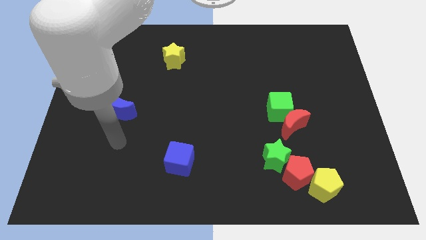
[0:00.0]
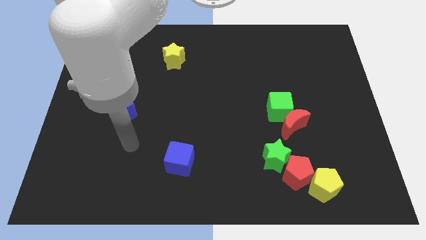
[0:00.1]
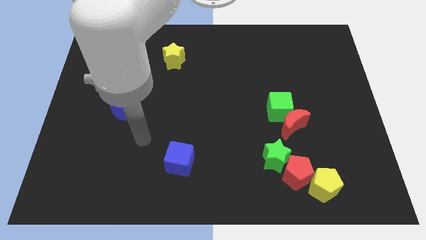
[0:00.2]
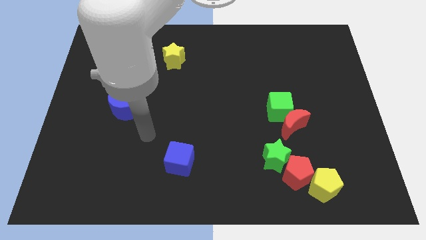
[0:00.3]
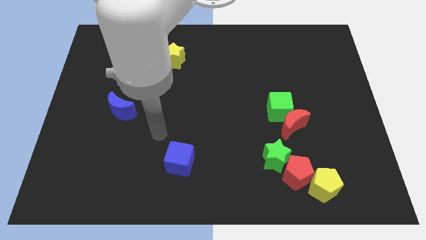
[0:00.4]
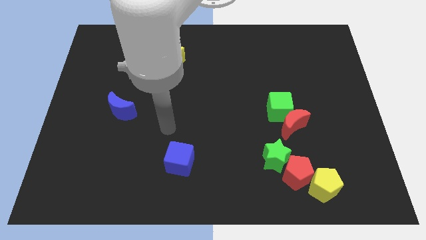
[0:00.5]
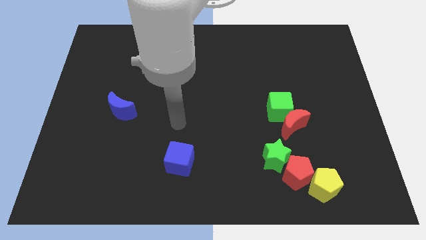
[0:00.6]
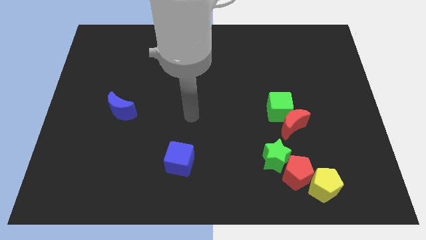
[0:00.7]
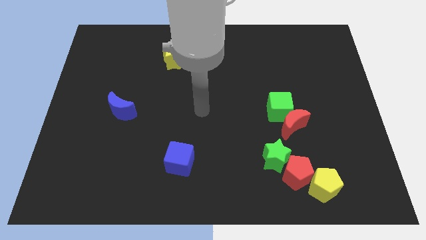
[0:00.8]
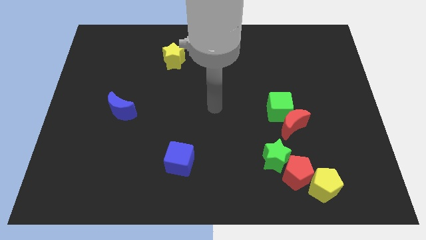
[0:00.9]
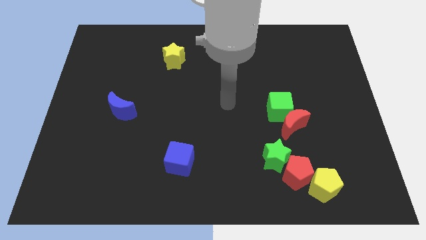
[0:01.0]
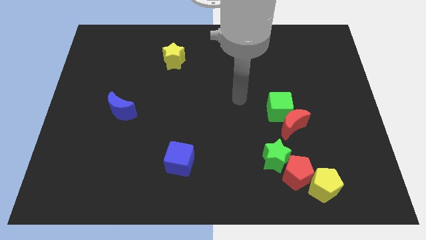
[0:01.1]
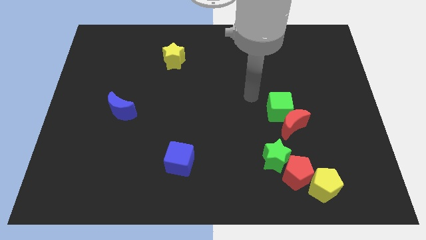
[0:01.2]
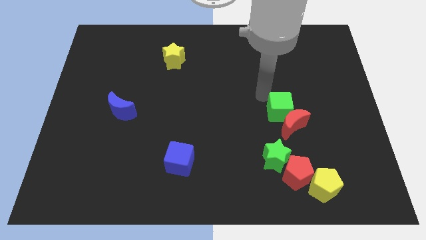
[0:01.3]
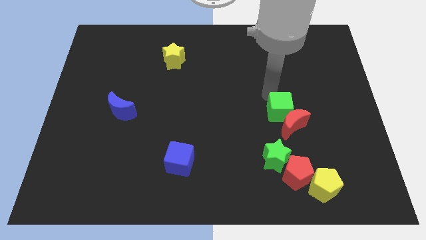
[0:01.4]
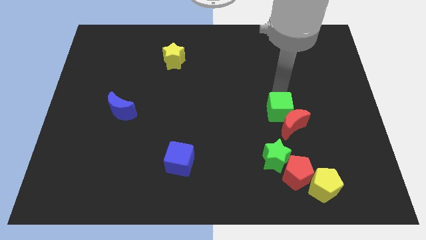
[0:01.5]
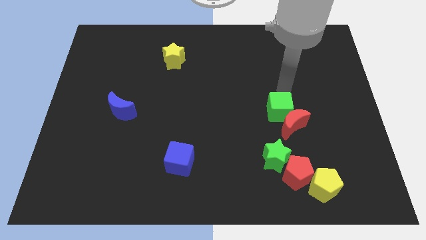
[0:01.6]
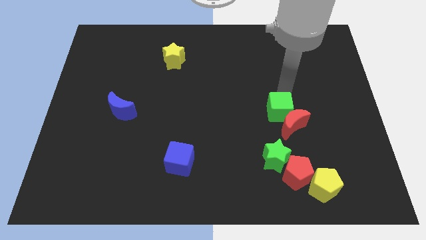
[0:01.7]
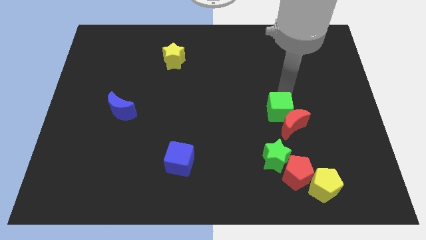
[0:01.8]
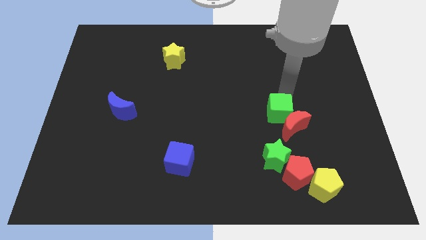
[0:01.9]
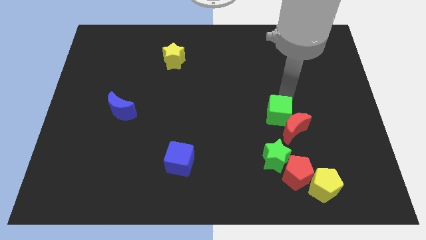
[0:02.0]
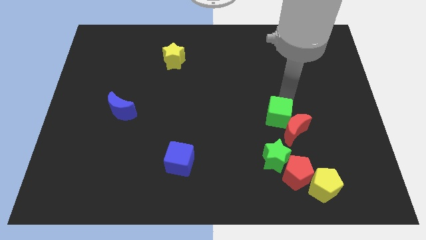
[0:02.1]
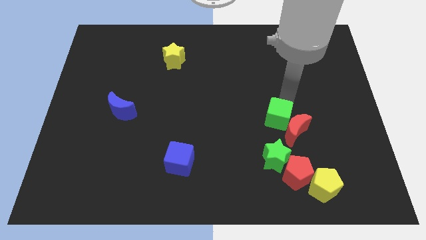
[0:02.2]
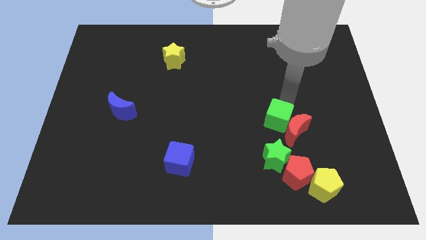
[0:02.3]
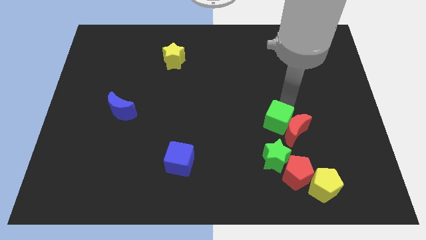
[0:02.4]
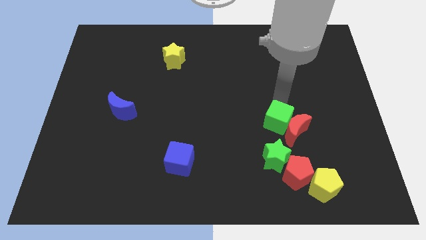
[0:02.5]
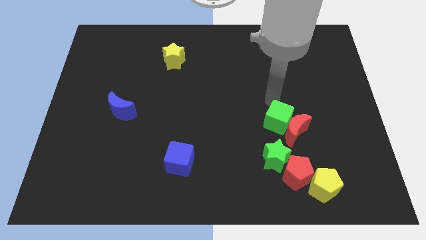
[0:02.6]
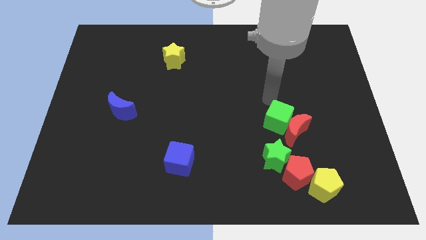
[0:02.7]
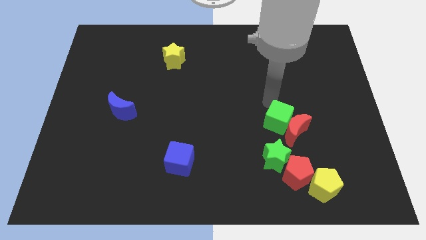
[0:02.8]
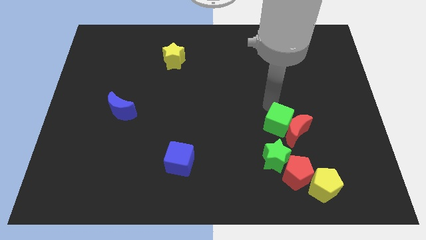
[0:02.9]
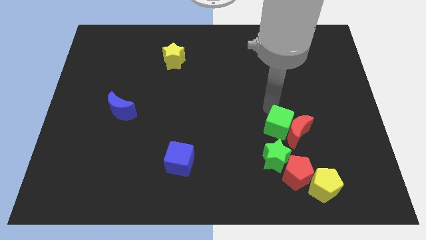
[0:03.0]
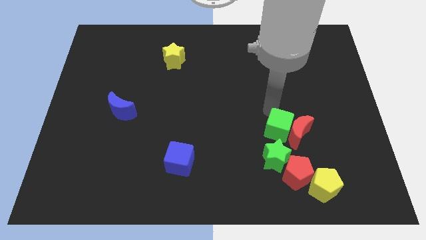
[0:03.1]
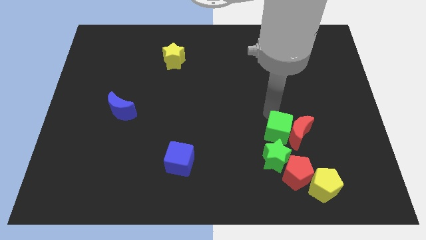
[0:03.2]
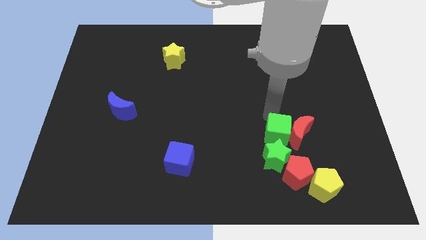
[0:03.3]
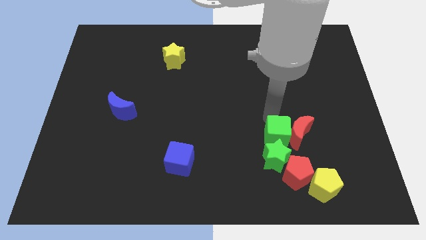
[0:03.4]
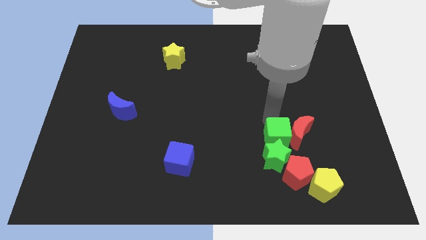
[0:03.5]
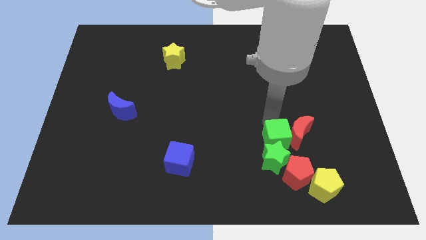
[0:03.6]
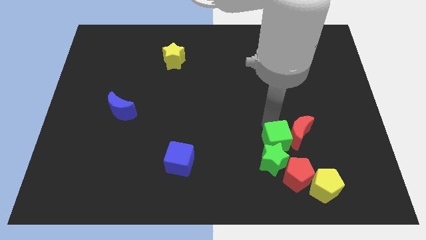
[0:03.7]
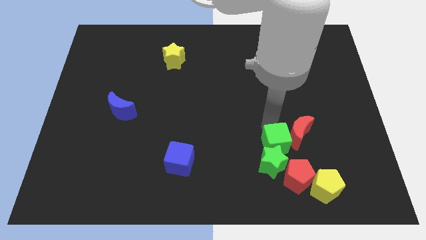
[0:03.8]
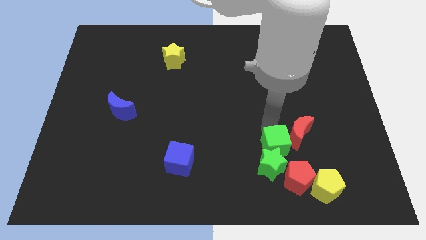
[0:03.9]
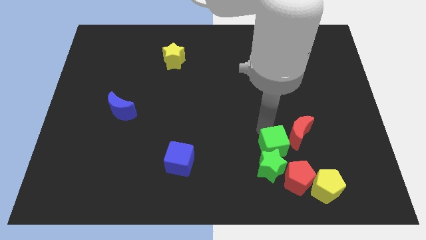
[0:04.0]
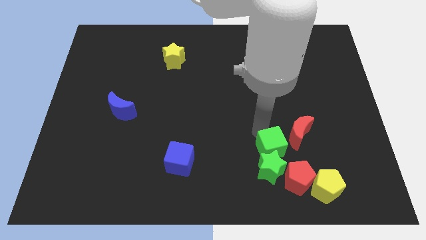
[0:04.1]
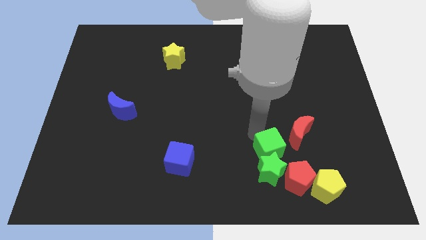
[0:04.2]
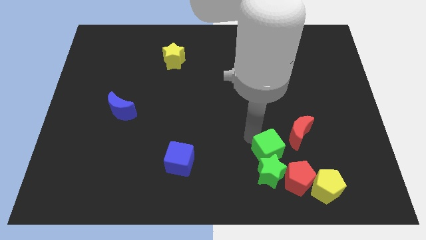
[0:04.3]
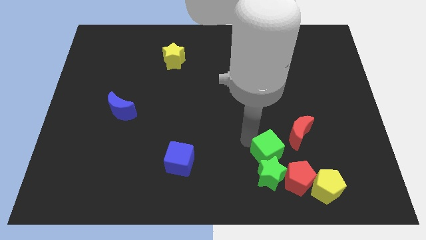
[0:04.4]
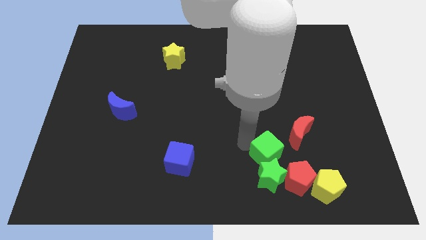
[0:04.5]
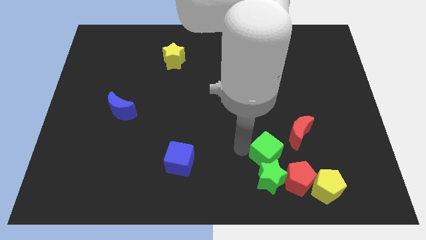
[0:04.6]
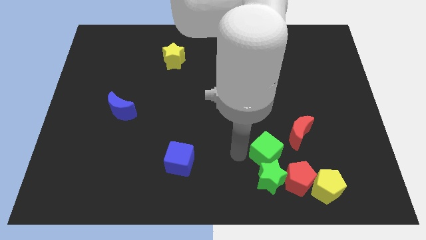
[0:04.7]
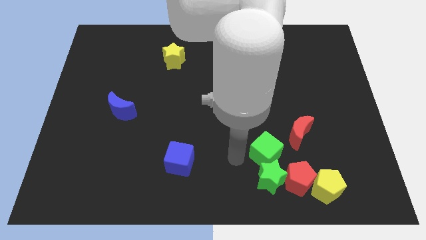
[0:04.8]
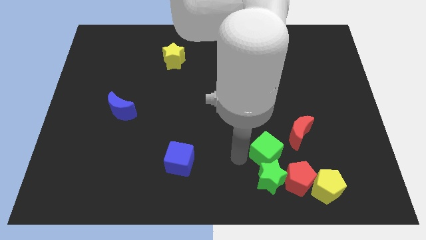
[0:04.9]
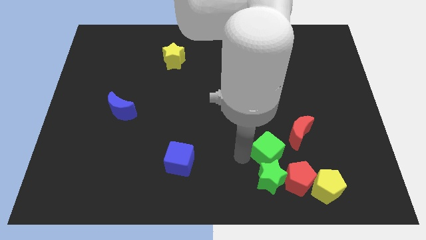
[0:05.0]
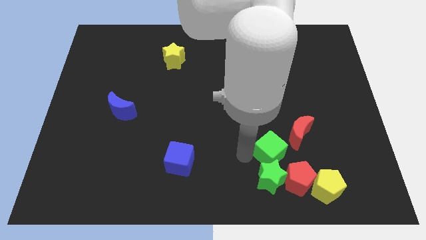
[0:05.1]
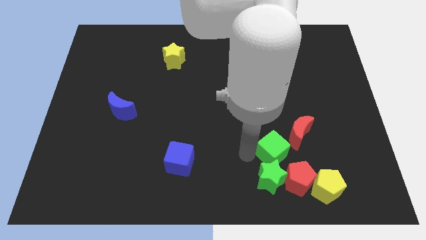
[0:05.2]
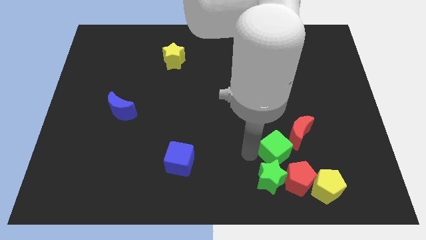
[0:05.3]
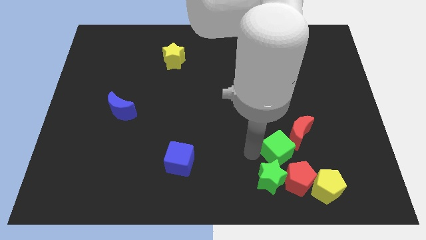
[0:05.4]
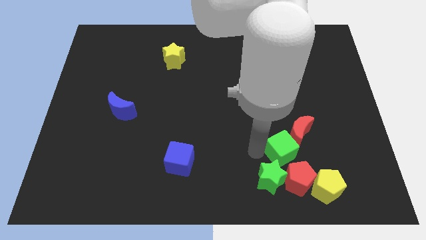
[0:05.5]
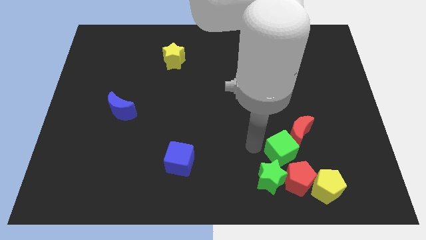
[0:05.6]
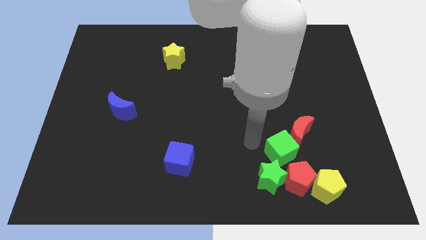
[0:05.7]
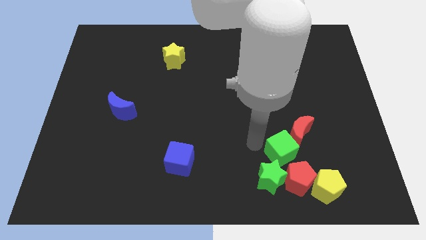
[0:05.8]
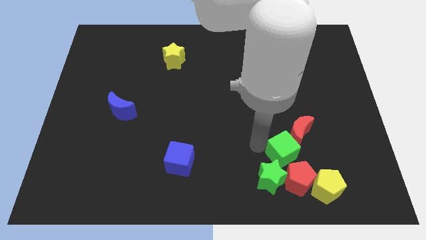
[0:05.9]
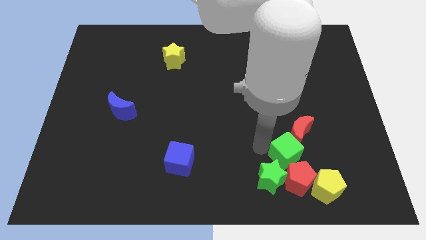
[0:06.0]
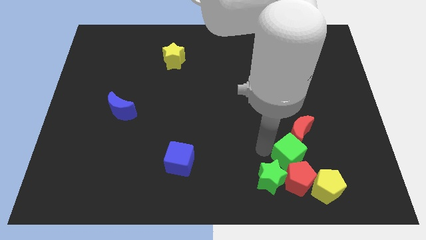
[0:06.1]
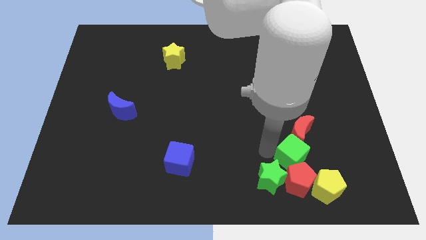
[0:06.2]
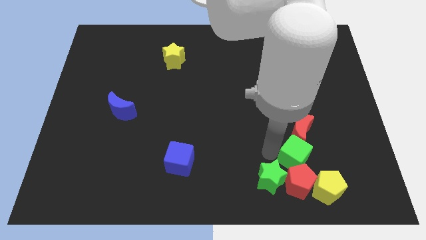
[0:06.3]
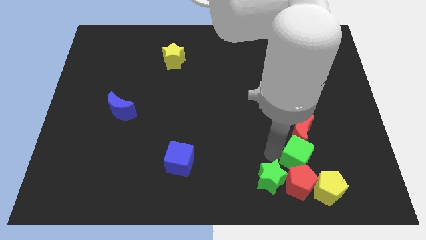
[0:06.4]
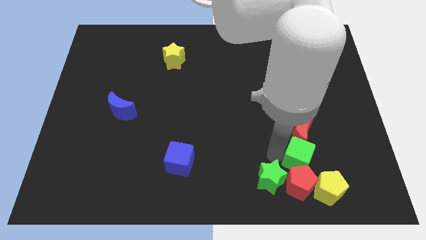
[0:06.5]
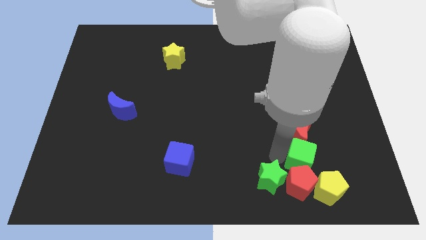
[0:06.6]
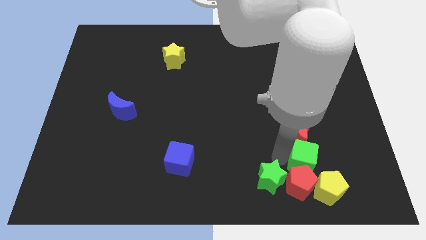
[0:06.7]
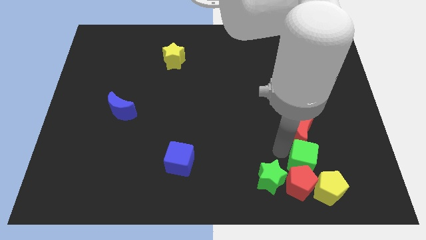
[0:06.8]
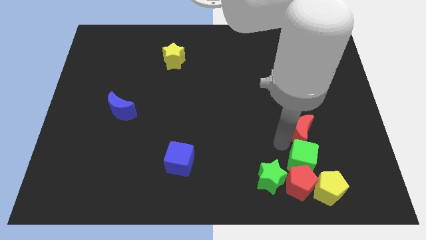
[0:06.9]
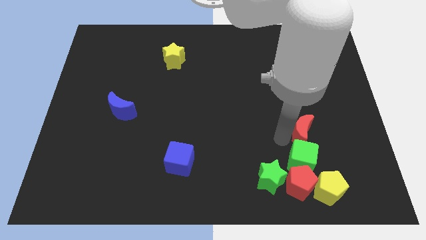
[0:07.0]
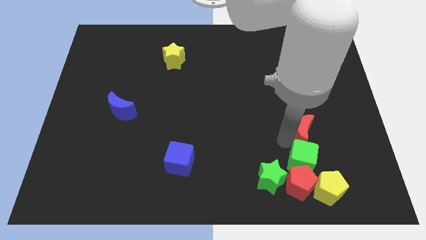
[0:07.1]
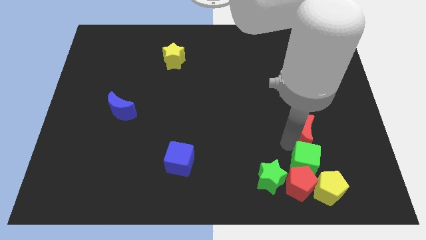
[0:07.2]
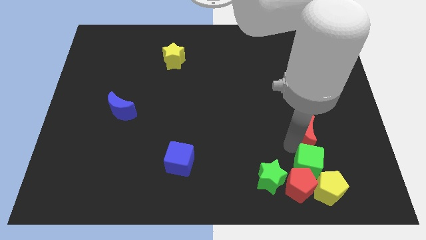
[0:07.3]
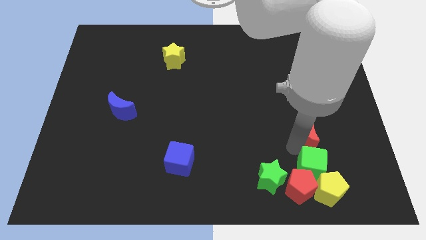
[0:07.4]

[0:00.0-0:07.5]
put the green cube close to the yellow pentagon
